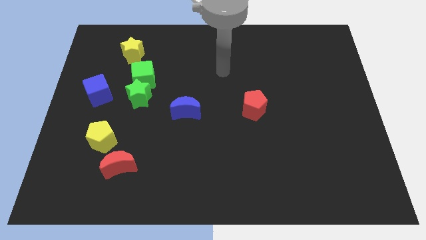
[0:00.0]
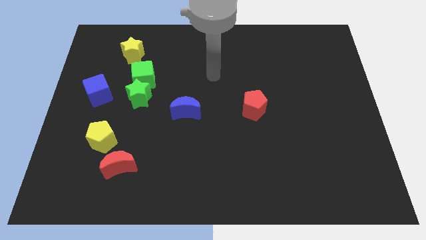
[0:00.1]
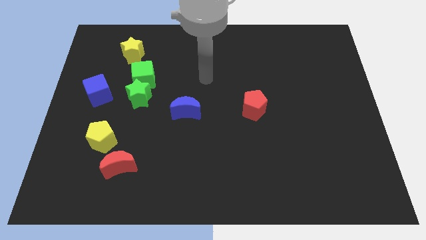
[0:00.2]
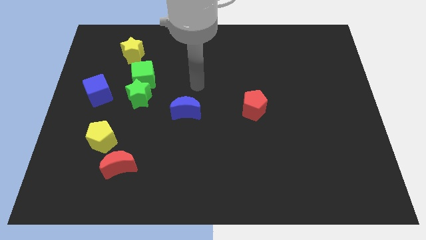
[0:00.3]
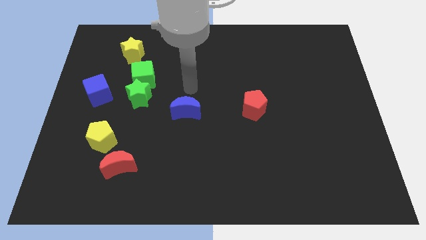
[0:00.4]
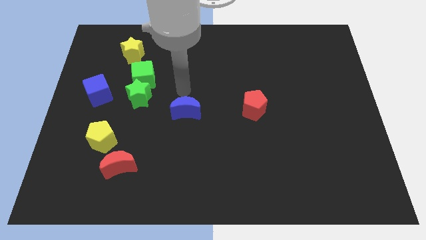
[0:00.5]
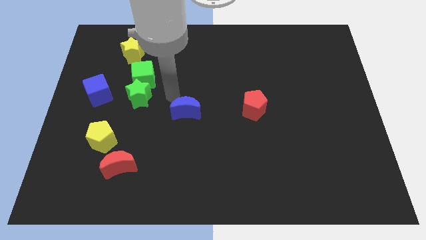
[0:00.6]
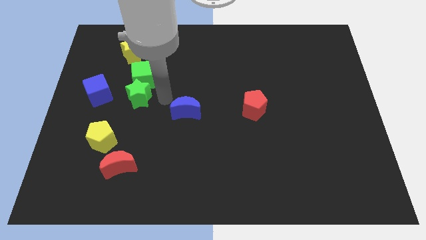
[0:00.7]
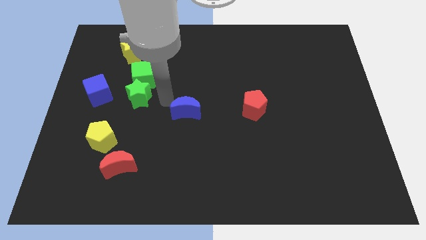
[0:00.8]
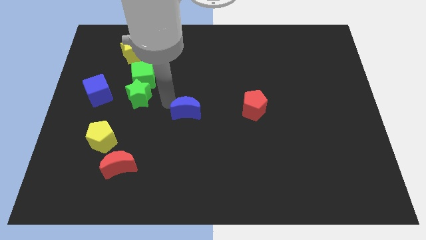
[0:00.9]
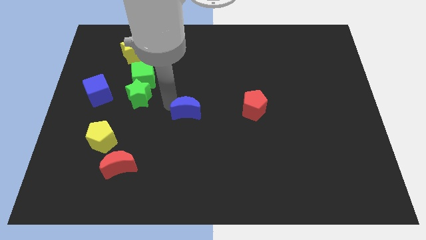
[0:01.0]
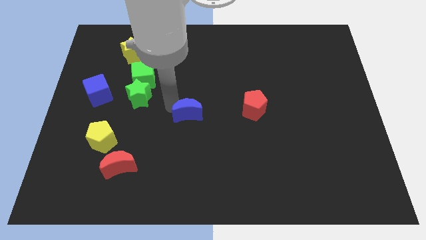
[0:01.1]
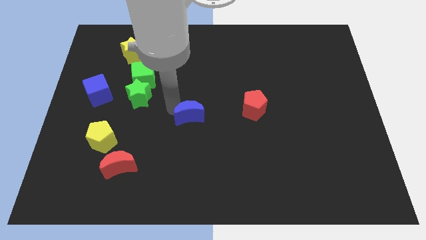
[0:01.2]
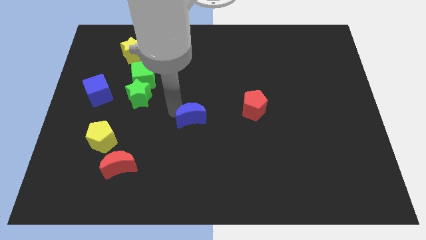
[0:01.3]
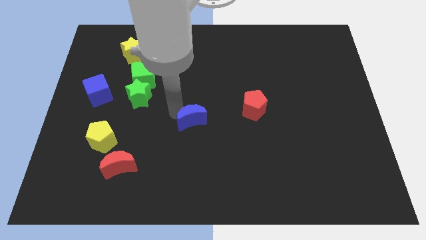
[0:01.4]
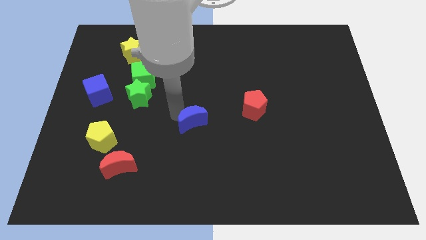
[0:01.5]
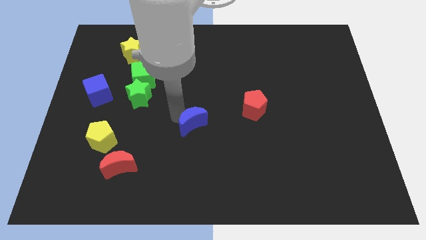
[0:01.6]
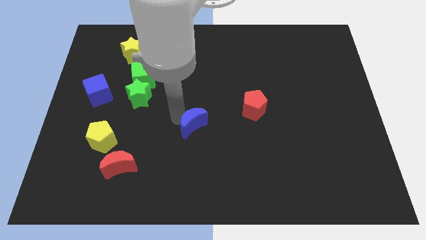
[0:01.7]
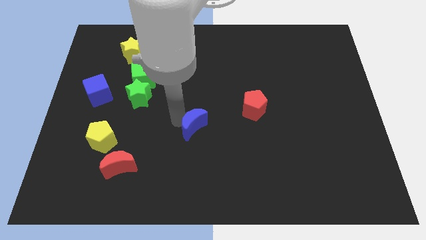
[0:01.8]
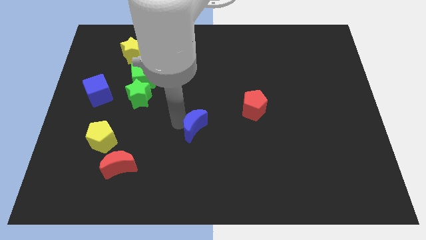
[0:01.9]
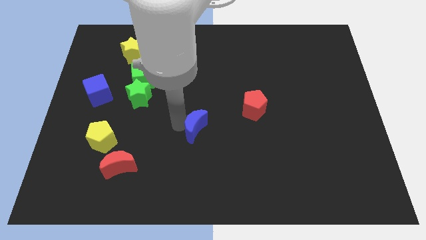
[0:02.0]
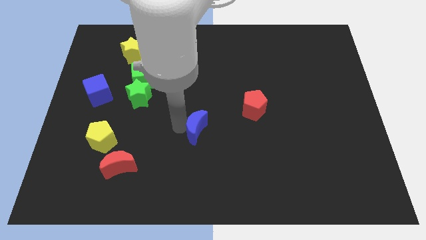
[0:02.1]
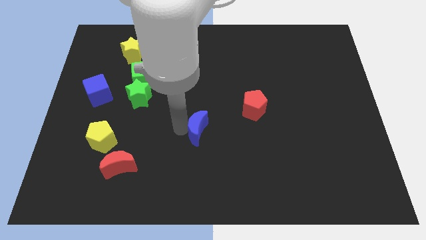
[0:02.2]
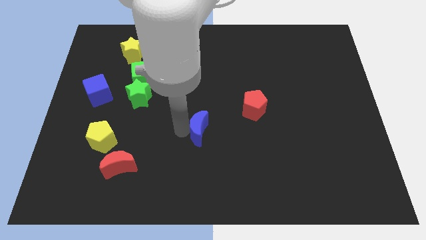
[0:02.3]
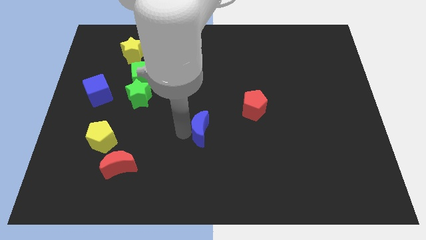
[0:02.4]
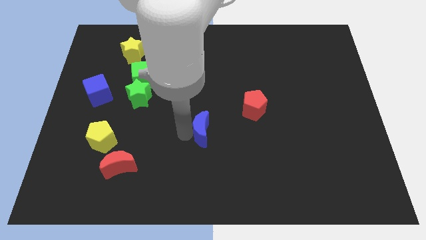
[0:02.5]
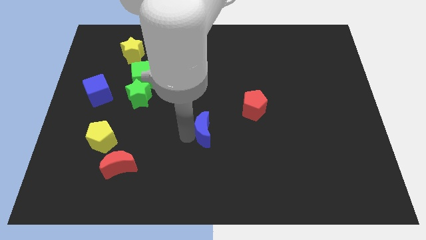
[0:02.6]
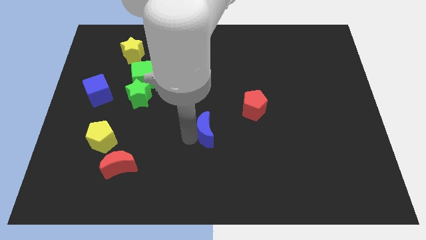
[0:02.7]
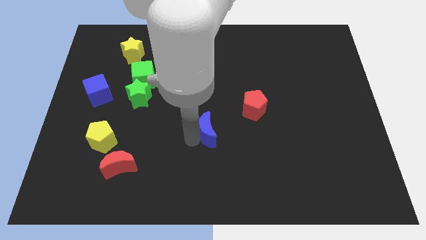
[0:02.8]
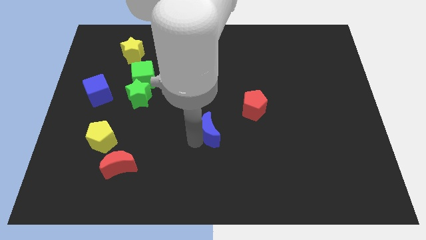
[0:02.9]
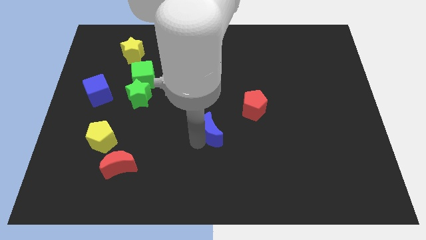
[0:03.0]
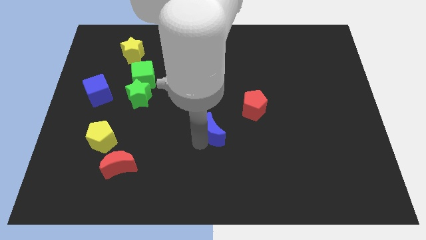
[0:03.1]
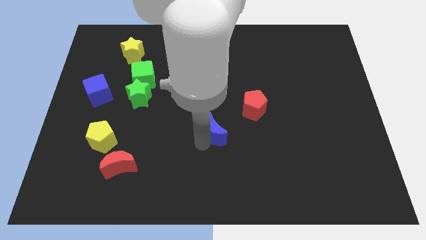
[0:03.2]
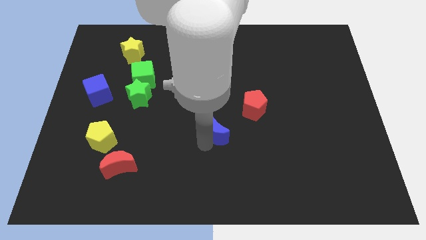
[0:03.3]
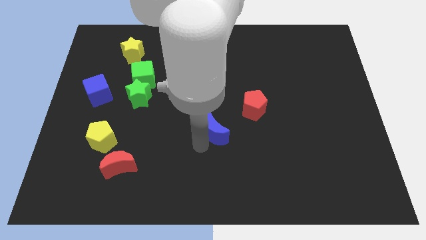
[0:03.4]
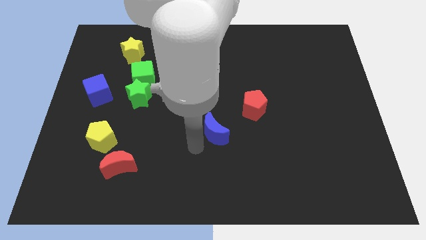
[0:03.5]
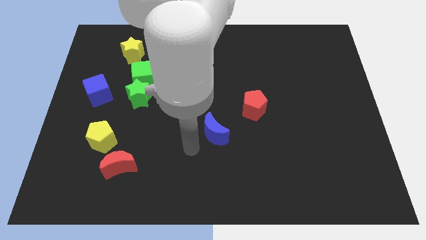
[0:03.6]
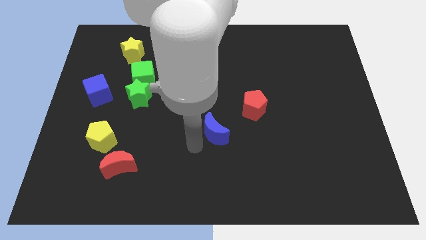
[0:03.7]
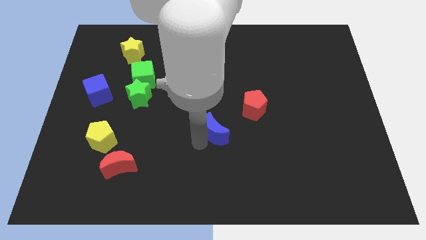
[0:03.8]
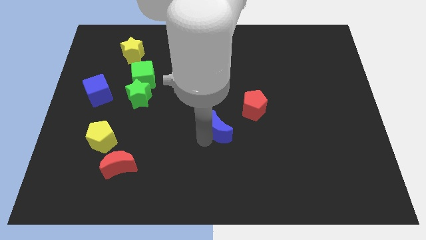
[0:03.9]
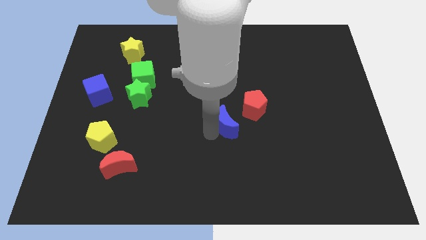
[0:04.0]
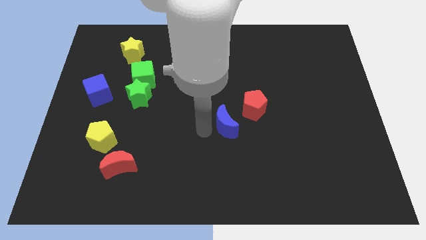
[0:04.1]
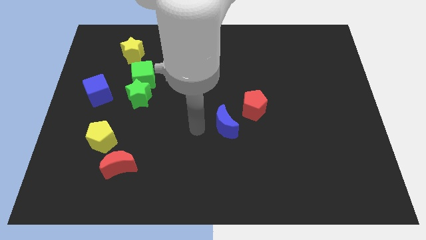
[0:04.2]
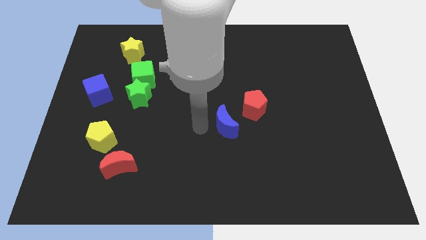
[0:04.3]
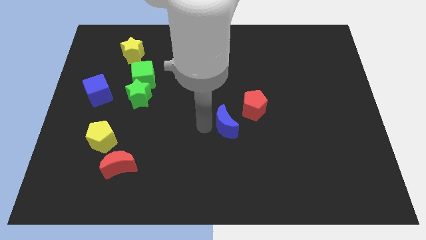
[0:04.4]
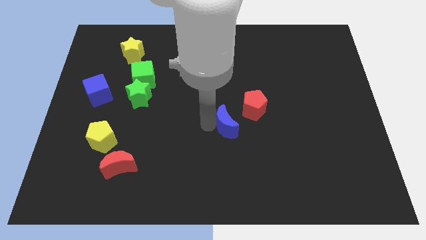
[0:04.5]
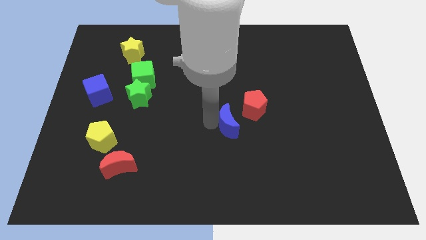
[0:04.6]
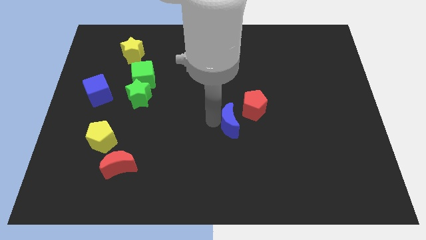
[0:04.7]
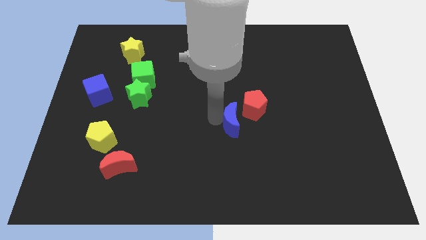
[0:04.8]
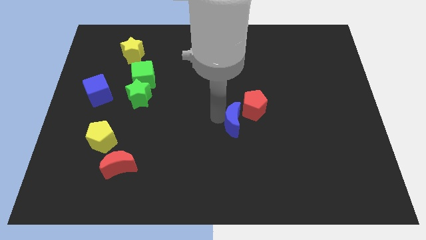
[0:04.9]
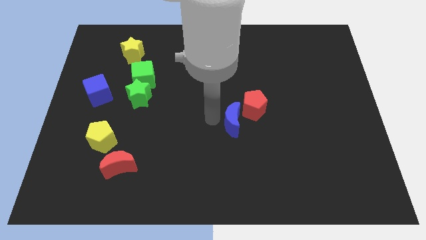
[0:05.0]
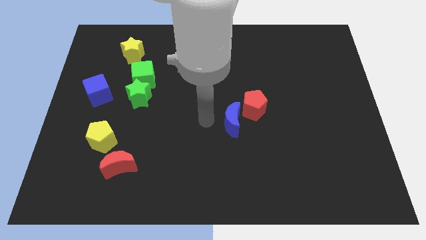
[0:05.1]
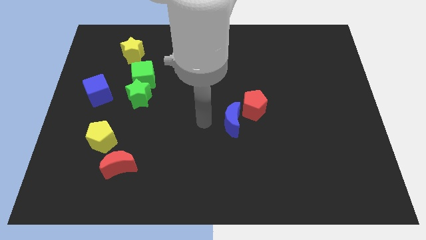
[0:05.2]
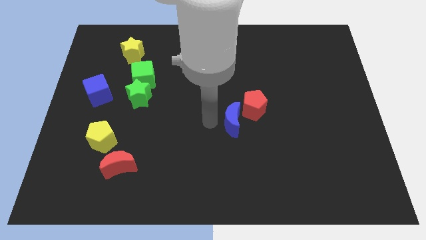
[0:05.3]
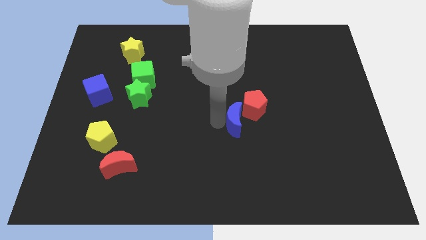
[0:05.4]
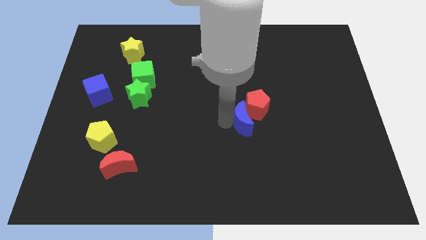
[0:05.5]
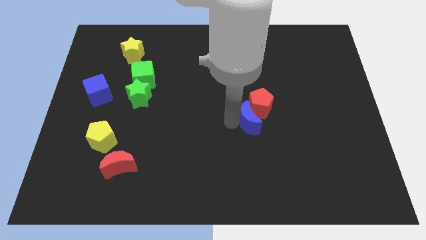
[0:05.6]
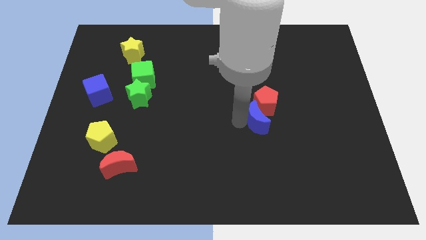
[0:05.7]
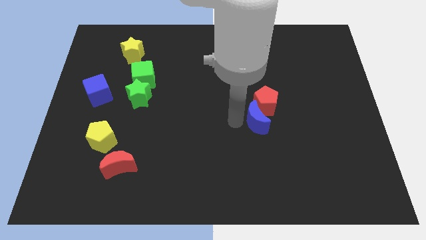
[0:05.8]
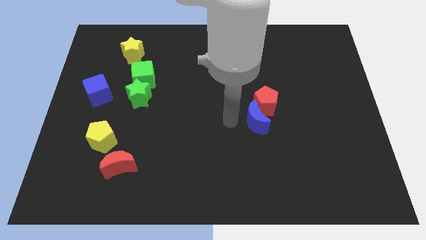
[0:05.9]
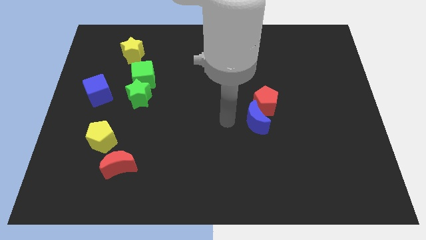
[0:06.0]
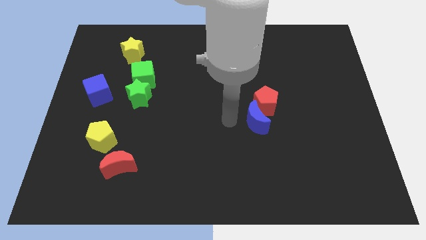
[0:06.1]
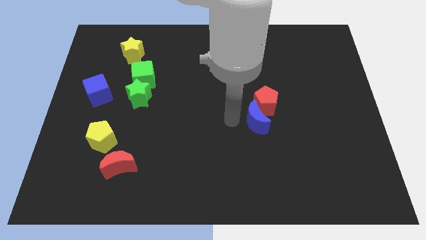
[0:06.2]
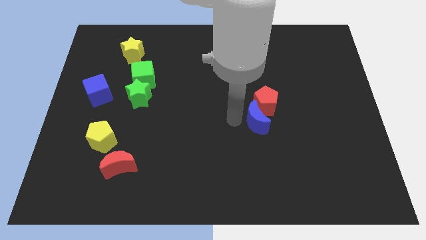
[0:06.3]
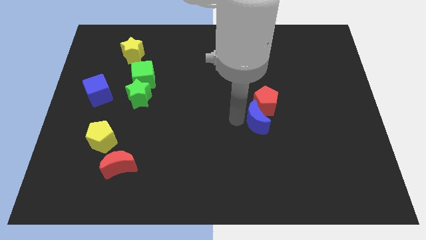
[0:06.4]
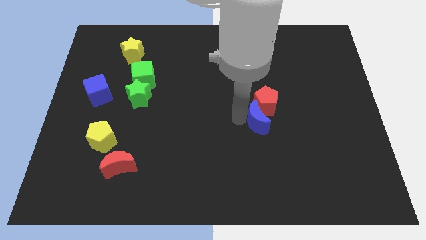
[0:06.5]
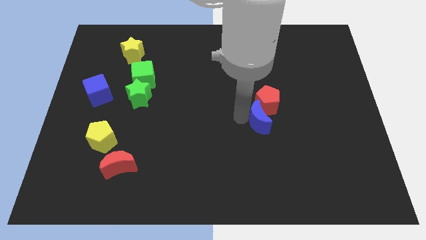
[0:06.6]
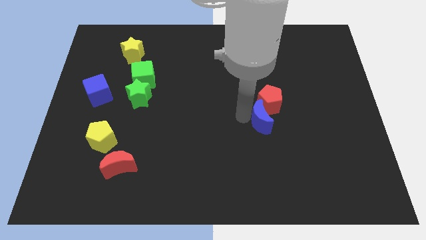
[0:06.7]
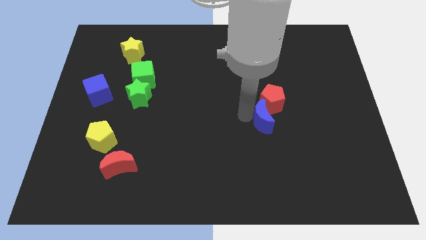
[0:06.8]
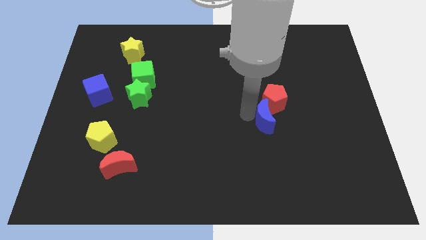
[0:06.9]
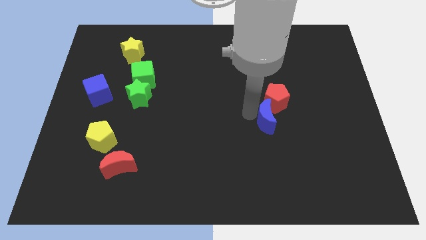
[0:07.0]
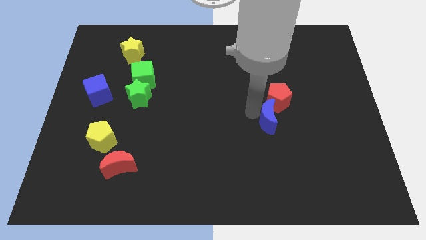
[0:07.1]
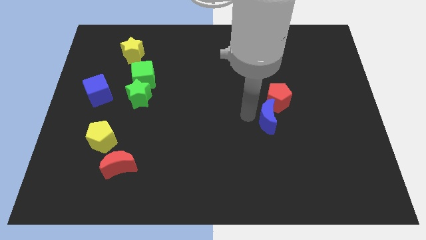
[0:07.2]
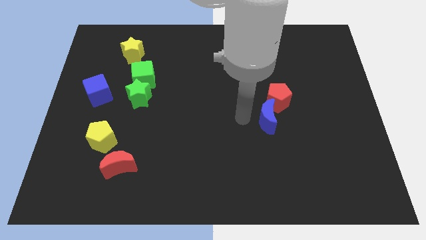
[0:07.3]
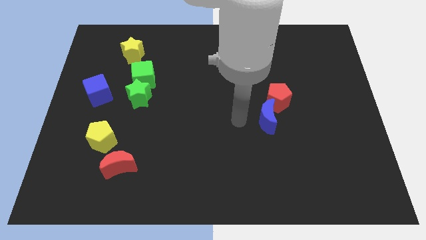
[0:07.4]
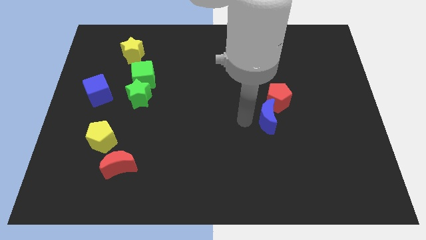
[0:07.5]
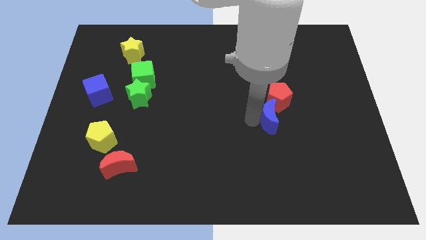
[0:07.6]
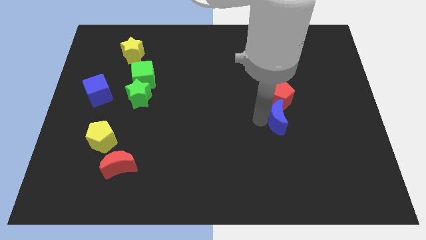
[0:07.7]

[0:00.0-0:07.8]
push the blue moon right

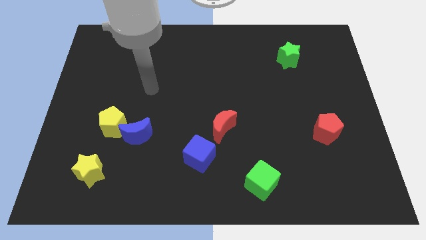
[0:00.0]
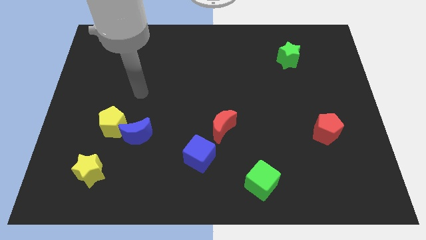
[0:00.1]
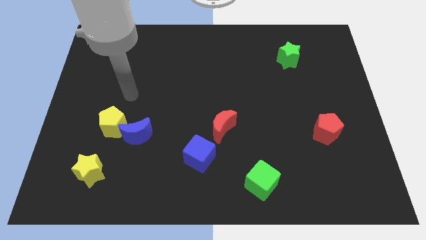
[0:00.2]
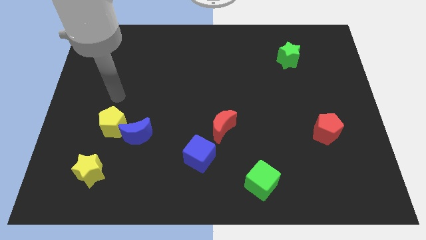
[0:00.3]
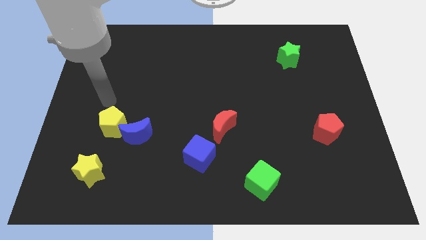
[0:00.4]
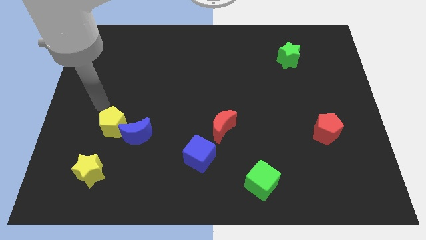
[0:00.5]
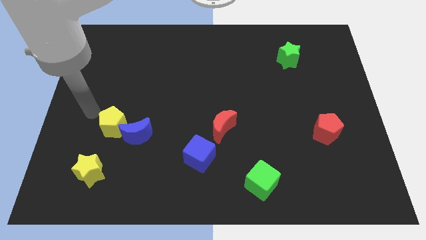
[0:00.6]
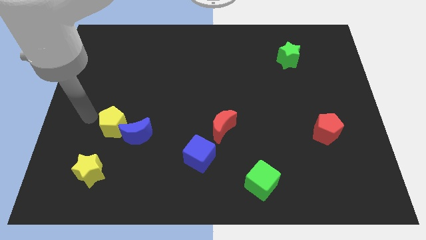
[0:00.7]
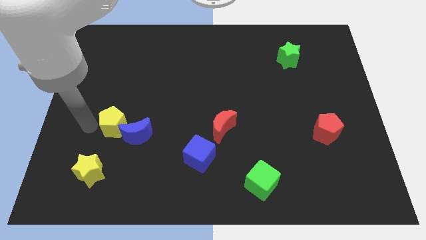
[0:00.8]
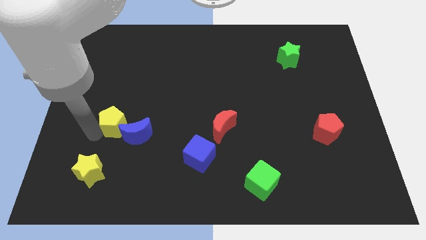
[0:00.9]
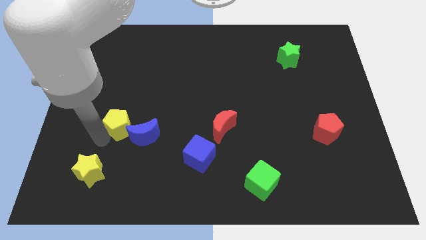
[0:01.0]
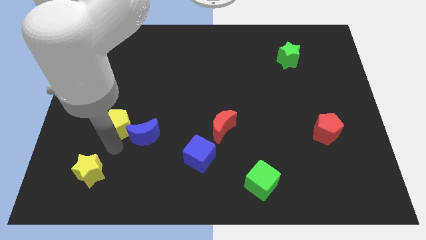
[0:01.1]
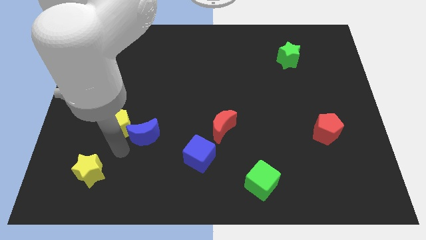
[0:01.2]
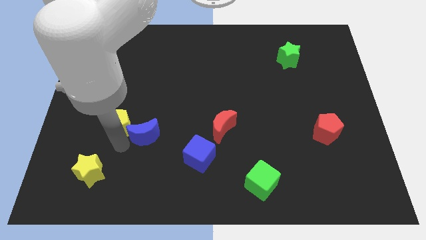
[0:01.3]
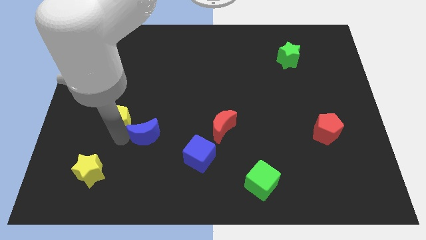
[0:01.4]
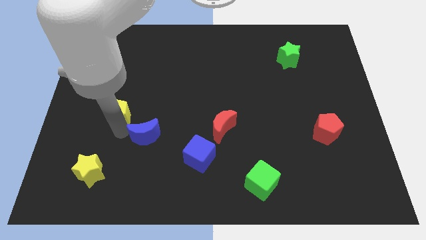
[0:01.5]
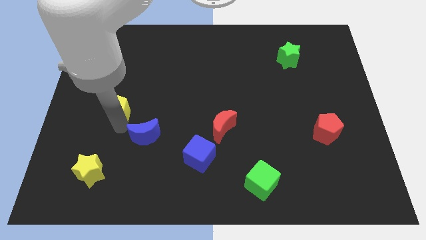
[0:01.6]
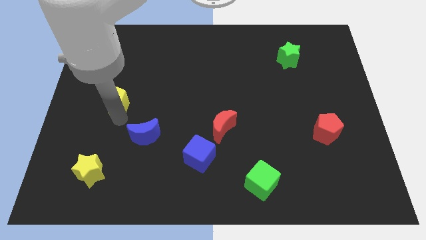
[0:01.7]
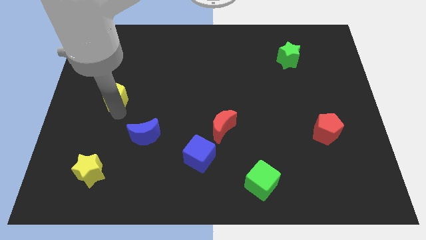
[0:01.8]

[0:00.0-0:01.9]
move the yellow pentagon up somewhat
